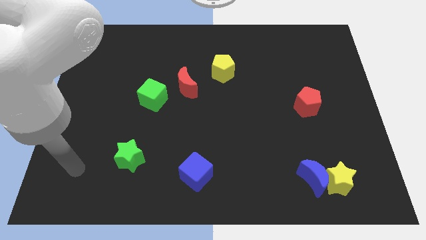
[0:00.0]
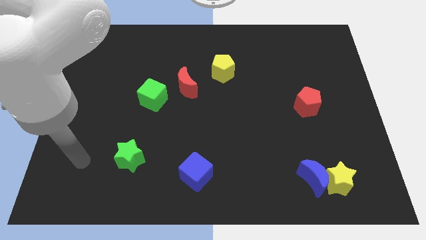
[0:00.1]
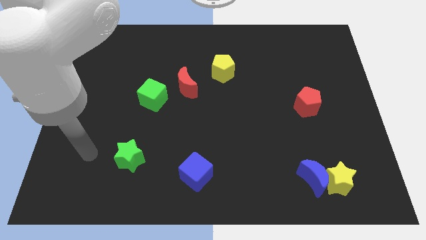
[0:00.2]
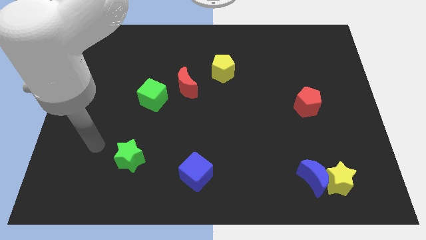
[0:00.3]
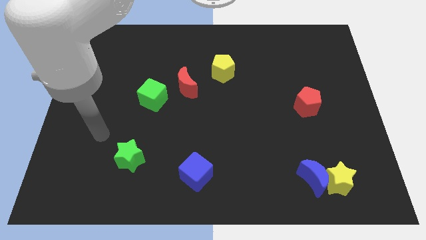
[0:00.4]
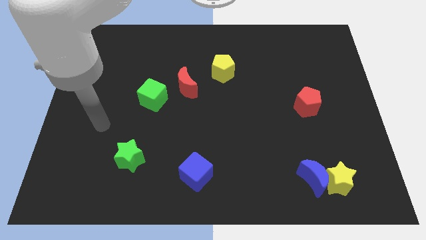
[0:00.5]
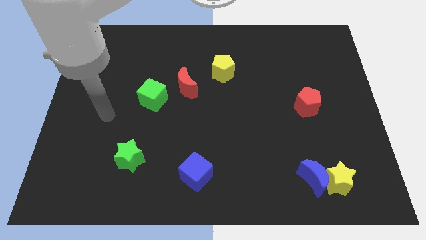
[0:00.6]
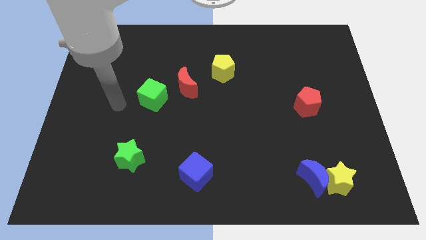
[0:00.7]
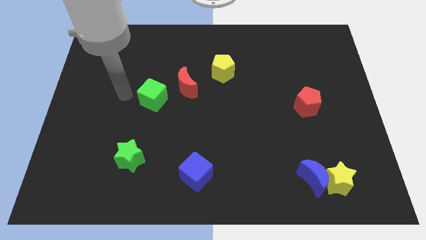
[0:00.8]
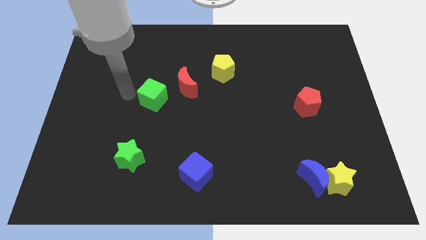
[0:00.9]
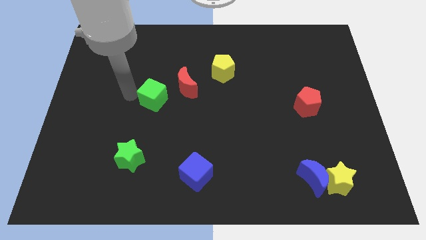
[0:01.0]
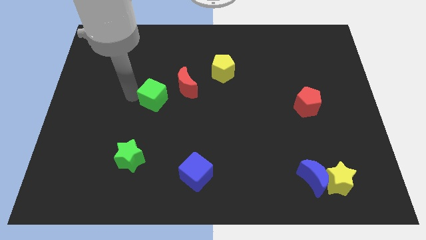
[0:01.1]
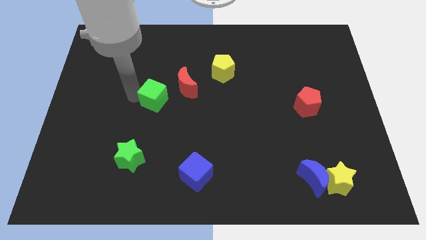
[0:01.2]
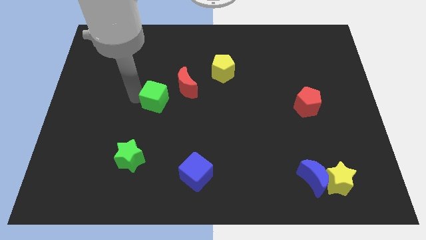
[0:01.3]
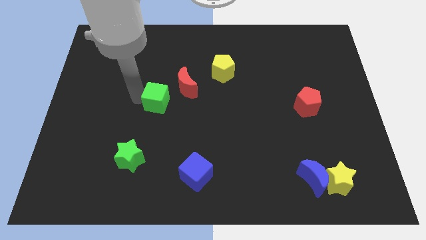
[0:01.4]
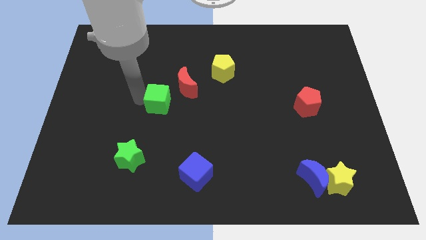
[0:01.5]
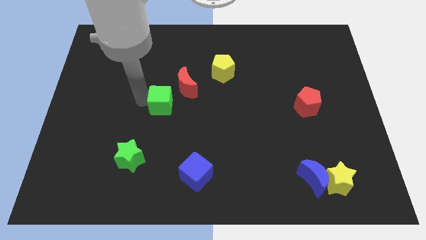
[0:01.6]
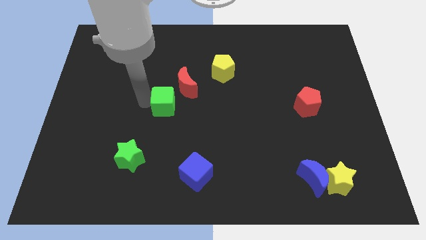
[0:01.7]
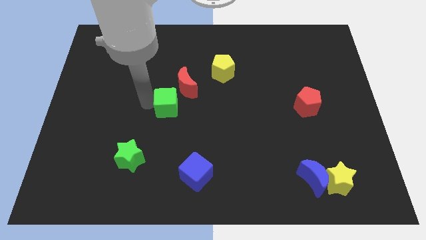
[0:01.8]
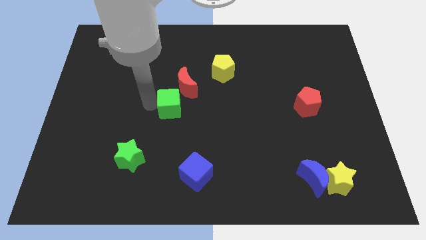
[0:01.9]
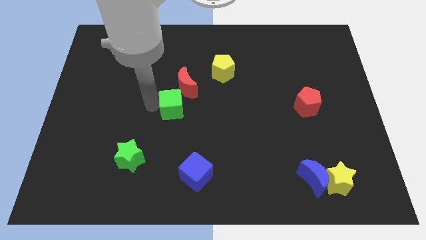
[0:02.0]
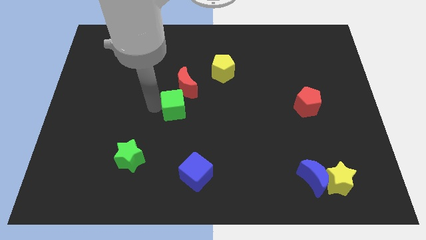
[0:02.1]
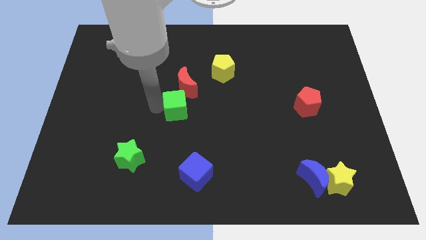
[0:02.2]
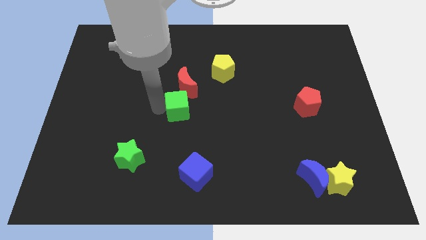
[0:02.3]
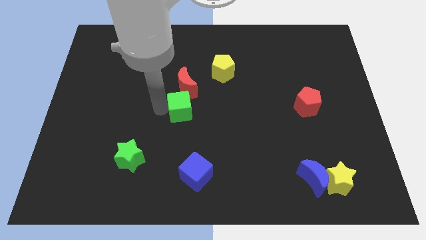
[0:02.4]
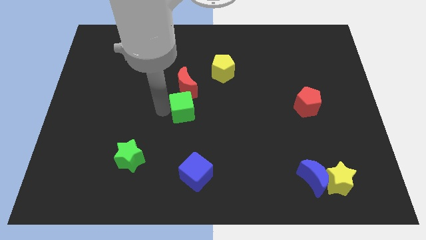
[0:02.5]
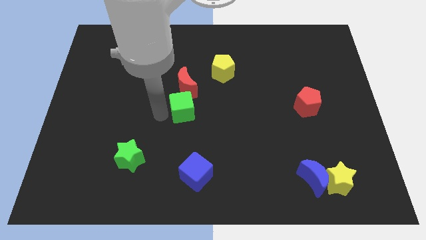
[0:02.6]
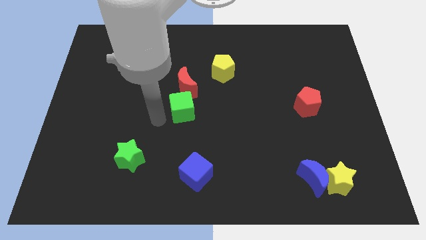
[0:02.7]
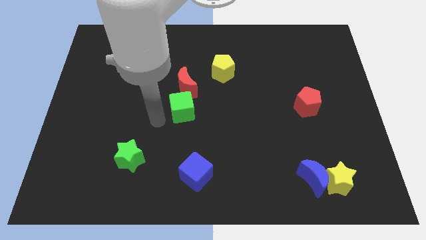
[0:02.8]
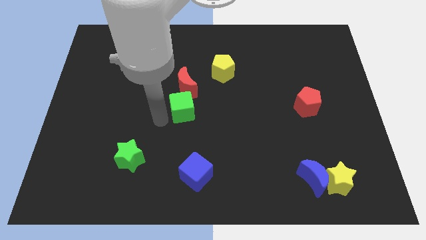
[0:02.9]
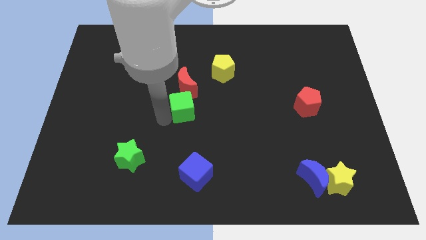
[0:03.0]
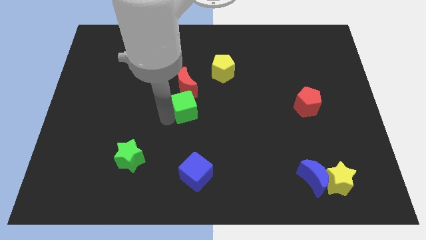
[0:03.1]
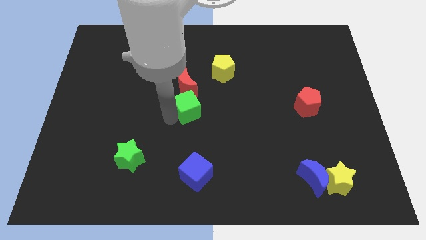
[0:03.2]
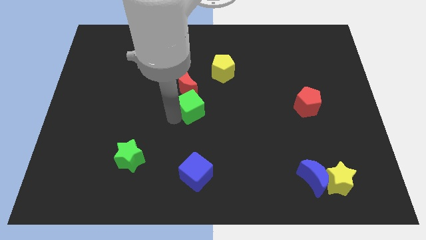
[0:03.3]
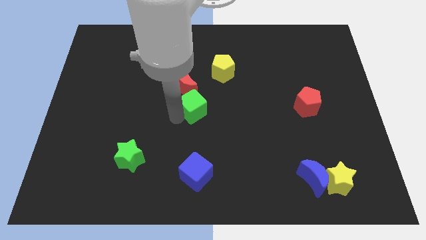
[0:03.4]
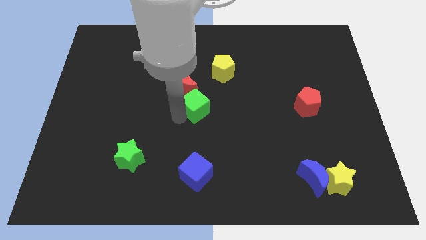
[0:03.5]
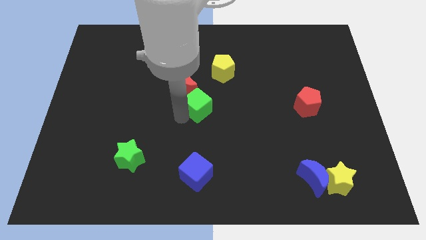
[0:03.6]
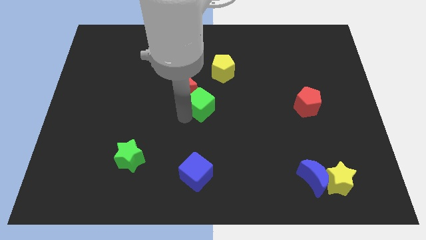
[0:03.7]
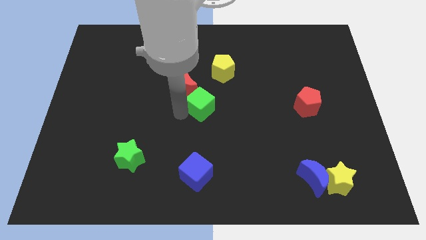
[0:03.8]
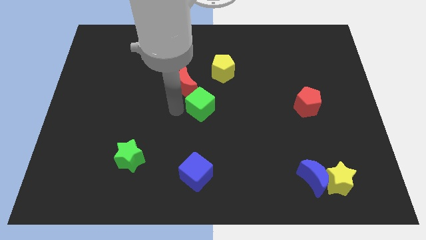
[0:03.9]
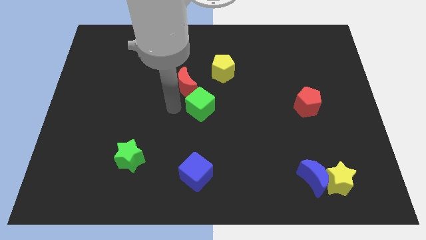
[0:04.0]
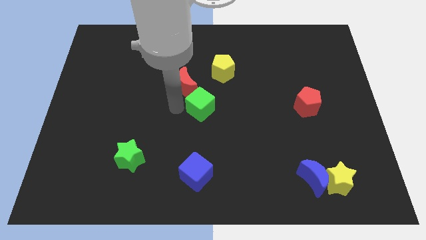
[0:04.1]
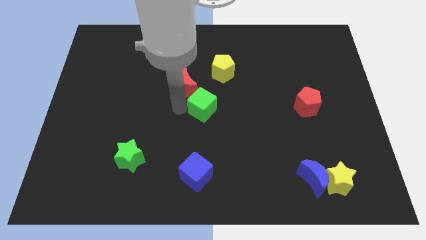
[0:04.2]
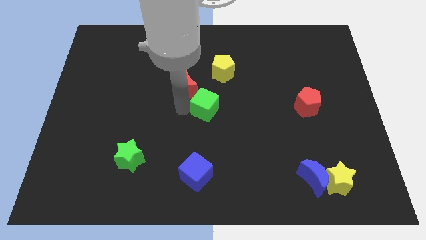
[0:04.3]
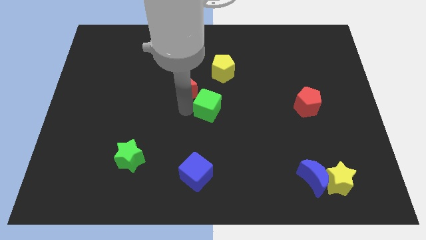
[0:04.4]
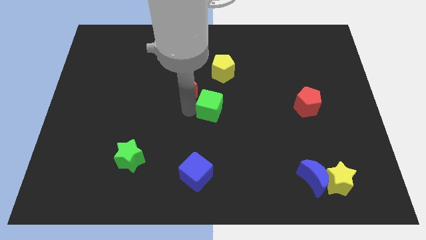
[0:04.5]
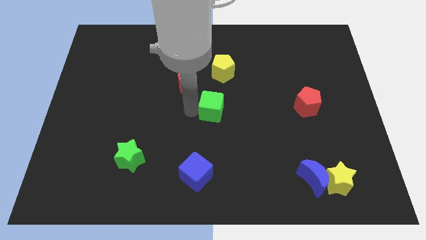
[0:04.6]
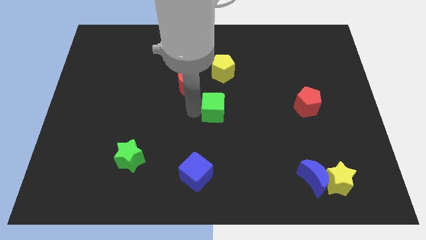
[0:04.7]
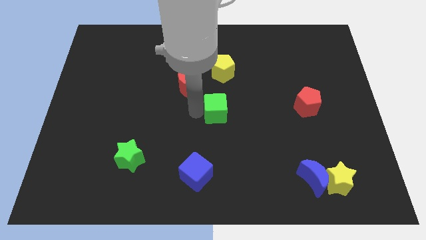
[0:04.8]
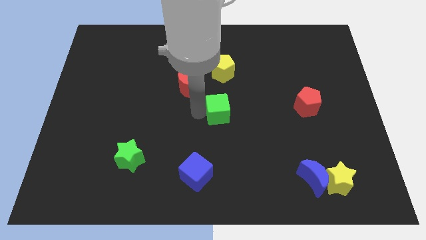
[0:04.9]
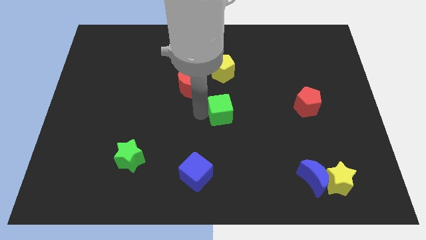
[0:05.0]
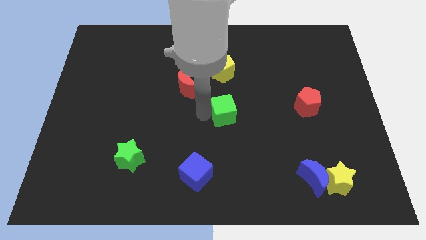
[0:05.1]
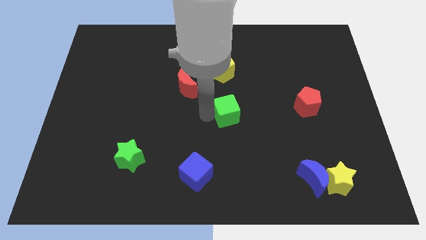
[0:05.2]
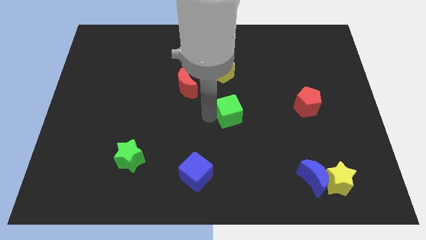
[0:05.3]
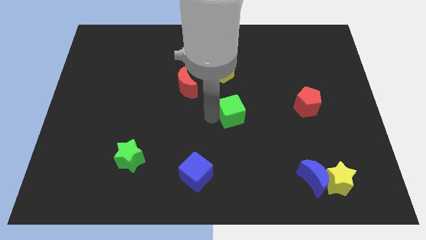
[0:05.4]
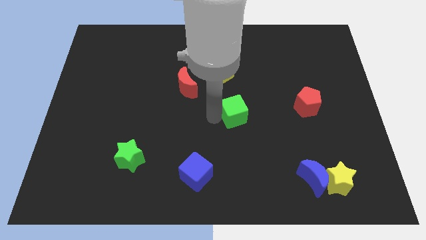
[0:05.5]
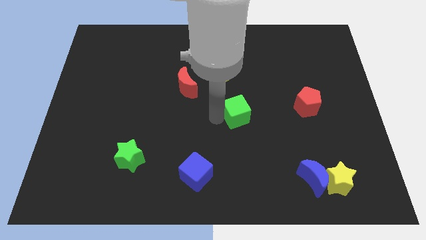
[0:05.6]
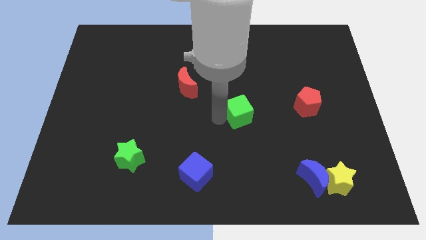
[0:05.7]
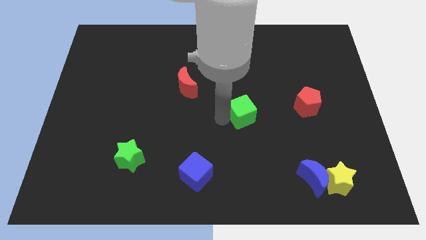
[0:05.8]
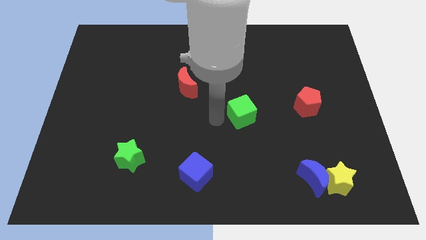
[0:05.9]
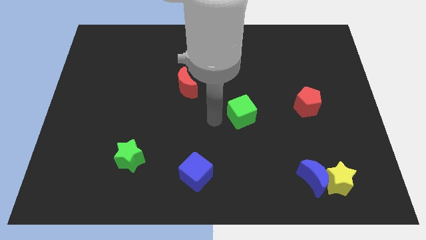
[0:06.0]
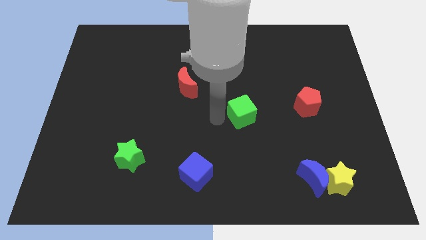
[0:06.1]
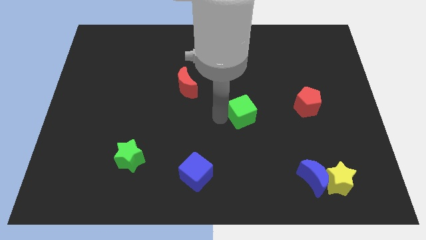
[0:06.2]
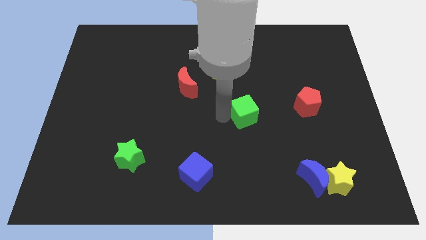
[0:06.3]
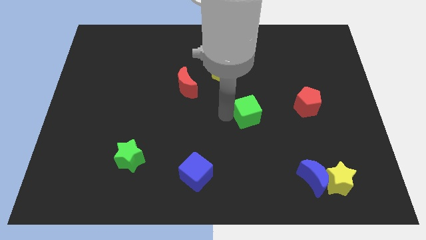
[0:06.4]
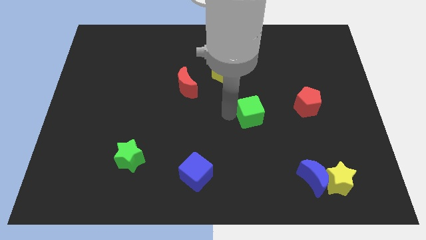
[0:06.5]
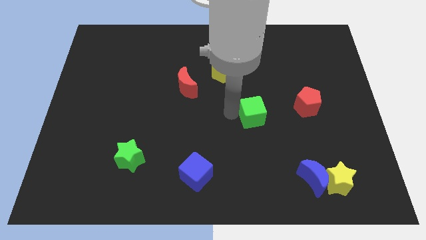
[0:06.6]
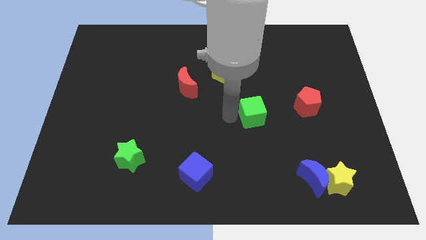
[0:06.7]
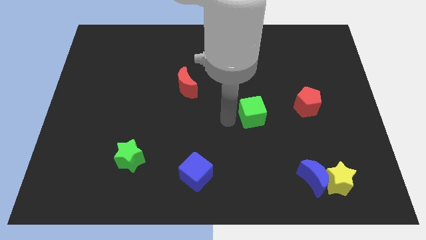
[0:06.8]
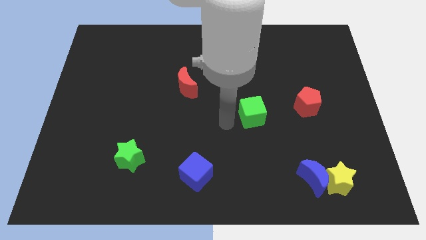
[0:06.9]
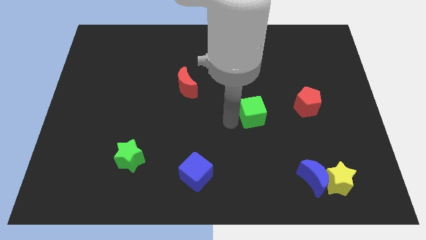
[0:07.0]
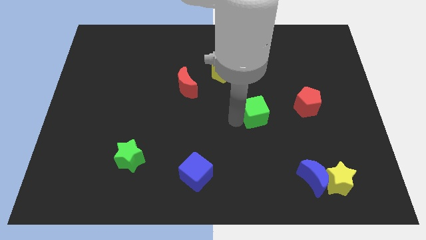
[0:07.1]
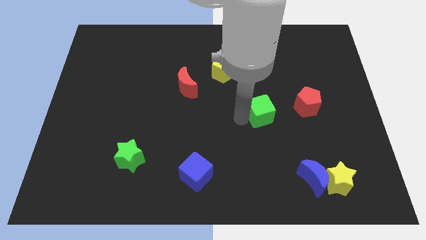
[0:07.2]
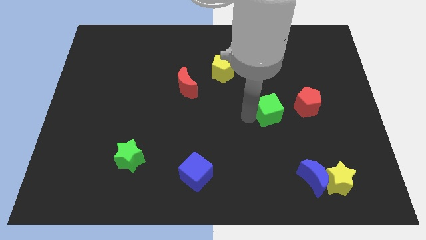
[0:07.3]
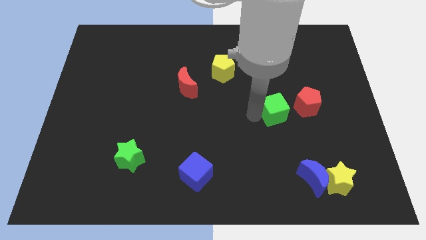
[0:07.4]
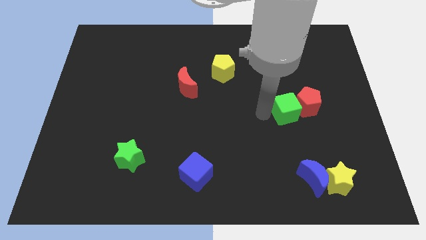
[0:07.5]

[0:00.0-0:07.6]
put the green cube next to the red pentagon

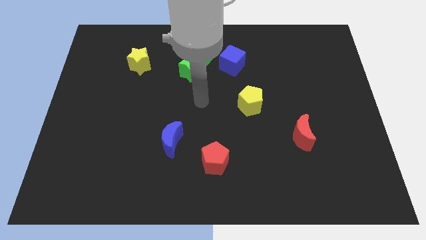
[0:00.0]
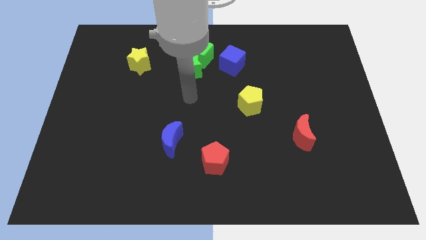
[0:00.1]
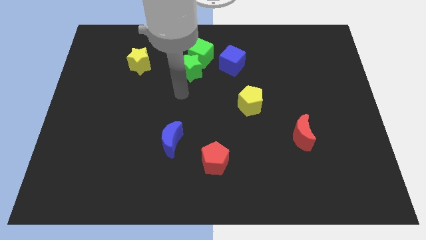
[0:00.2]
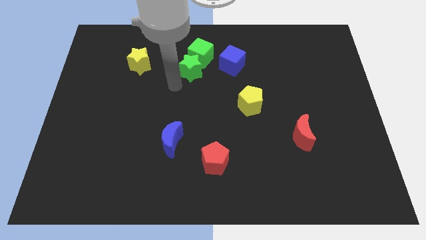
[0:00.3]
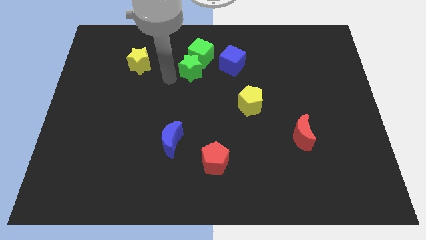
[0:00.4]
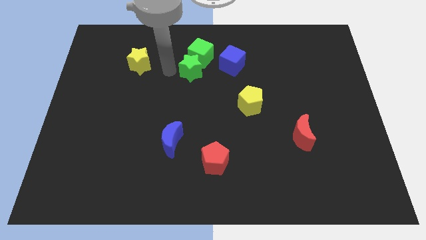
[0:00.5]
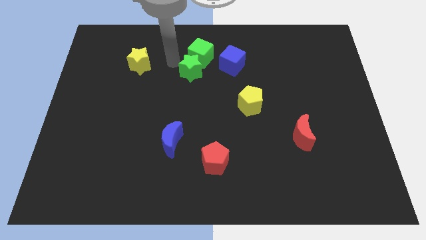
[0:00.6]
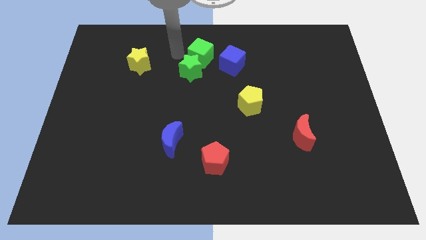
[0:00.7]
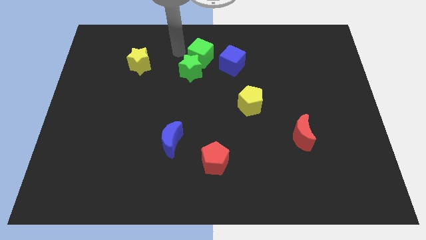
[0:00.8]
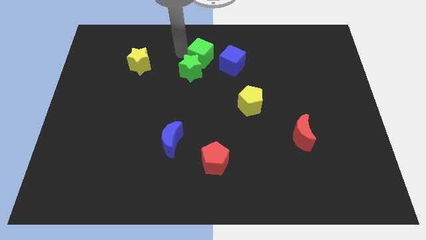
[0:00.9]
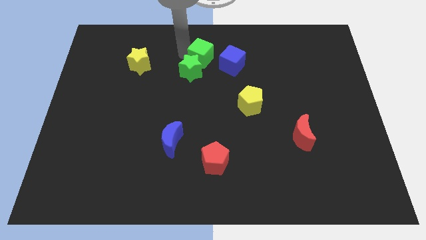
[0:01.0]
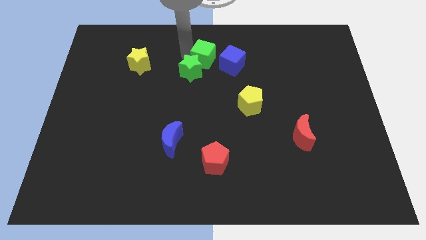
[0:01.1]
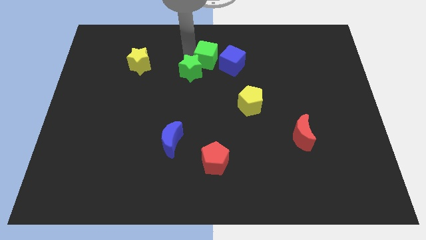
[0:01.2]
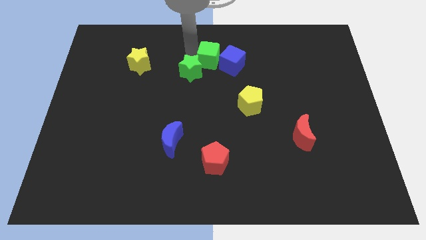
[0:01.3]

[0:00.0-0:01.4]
slide the green cube towards the blue cube
